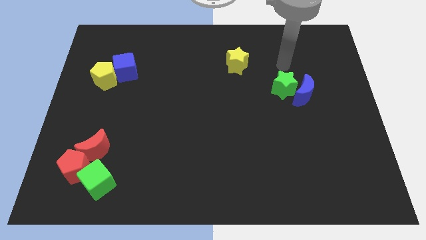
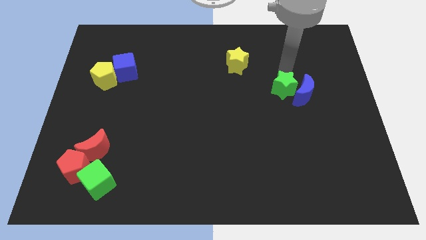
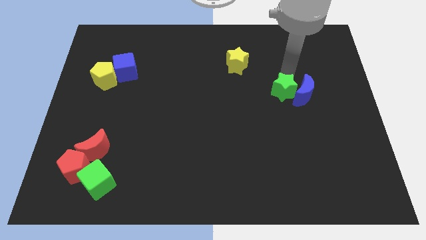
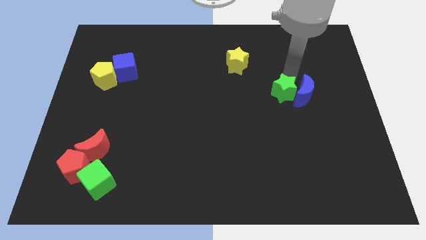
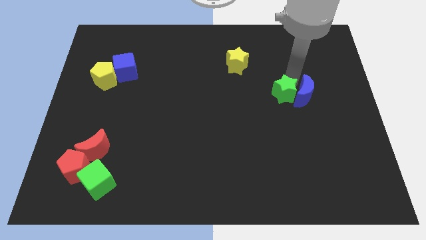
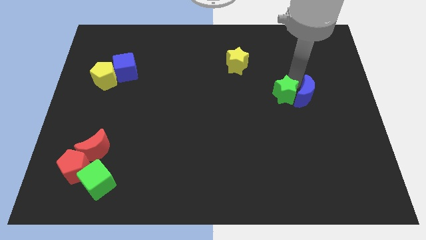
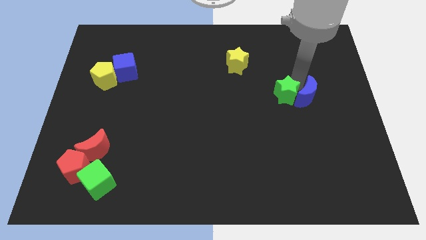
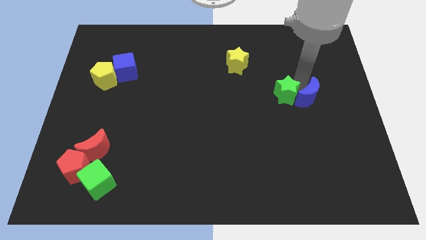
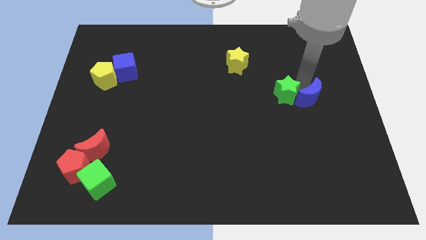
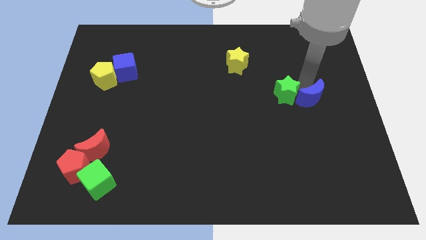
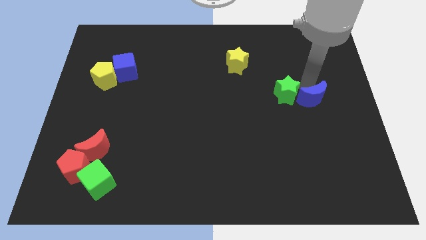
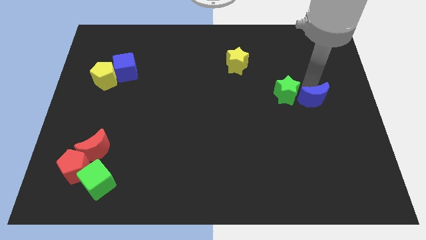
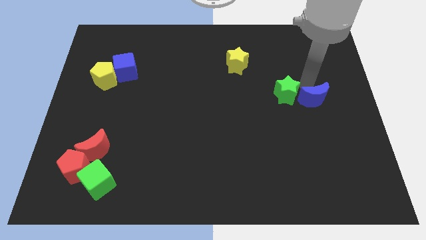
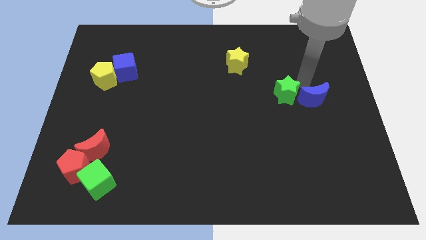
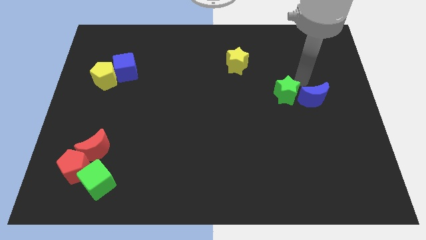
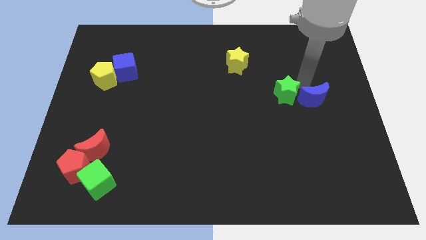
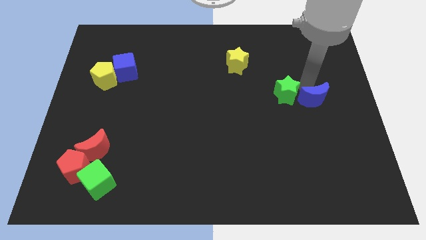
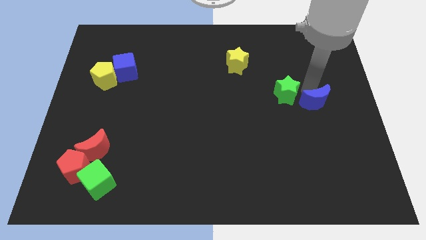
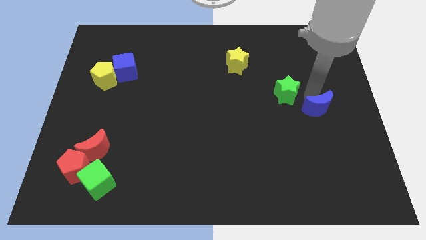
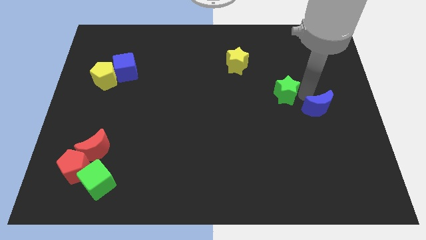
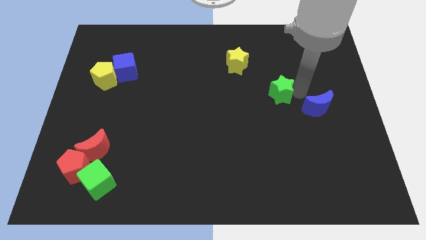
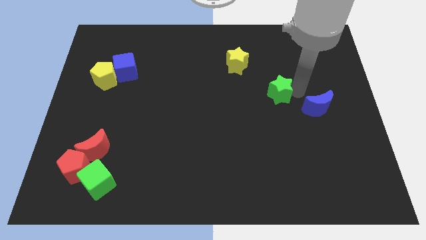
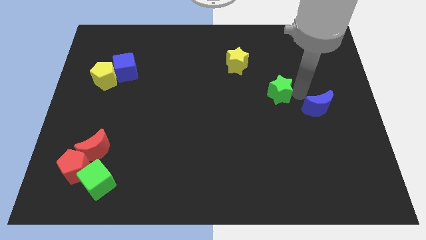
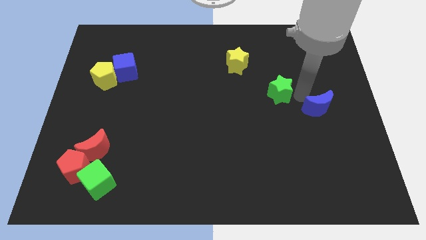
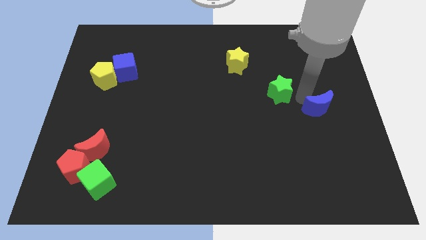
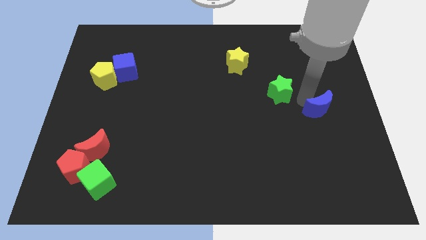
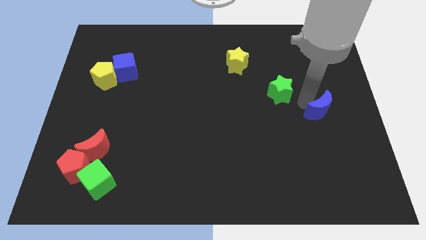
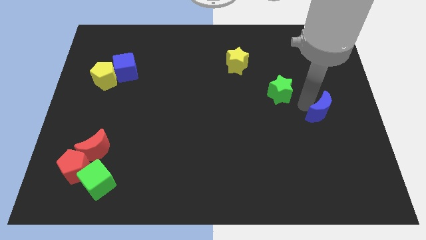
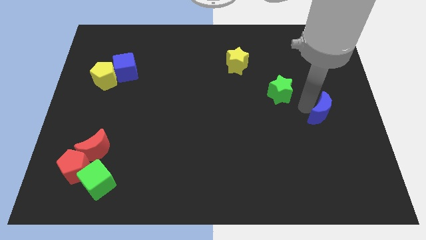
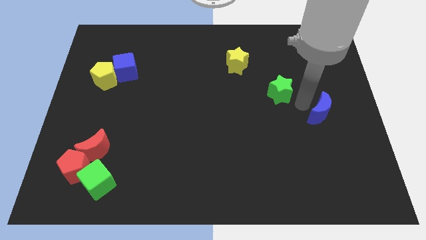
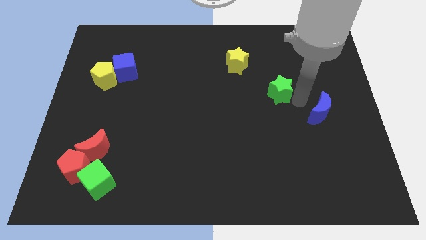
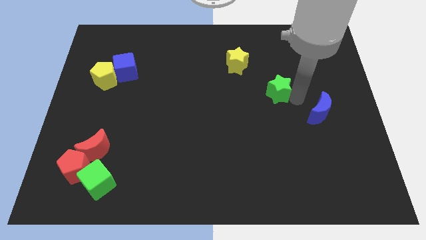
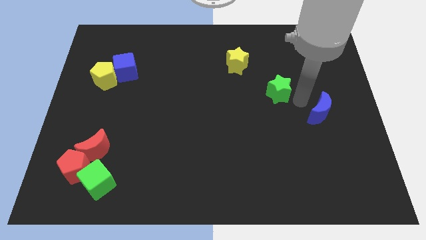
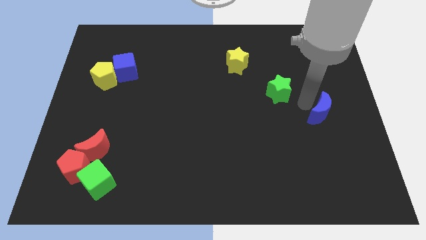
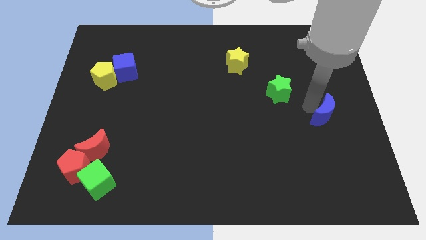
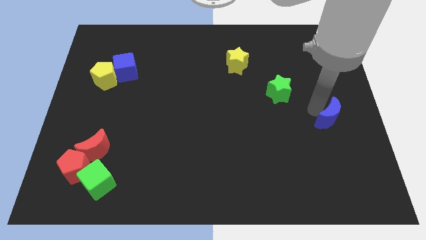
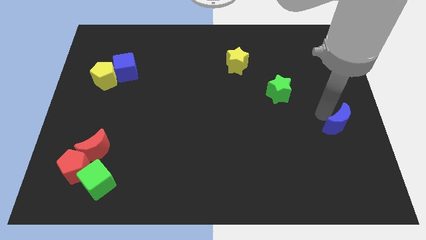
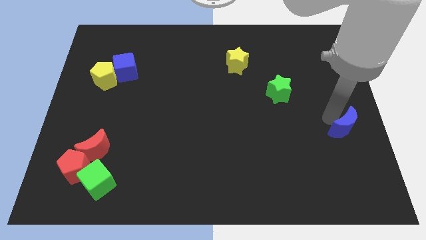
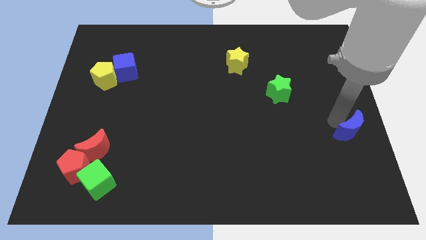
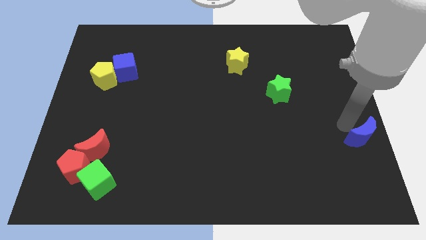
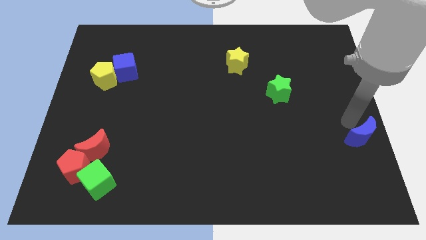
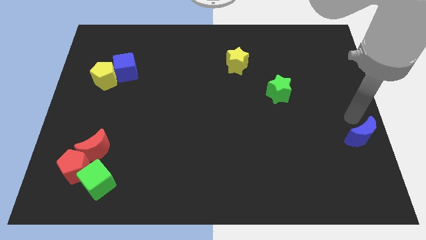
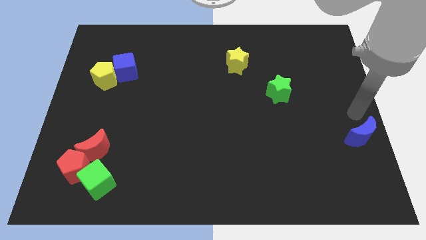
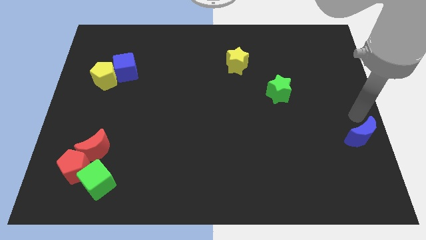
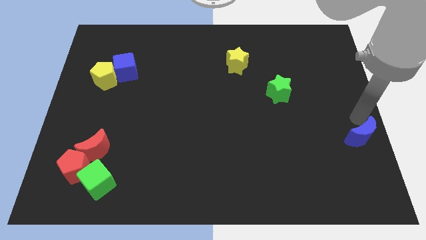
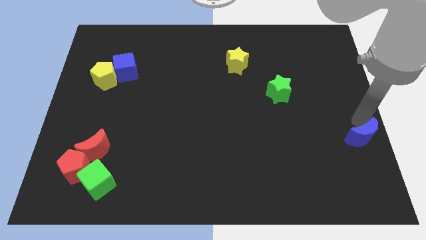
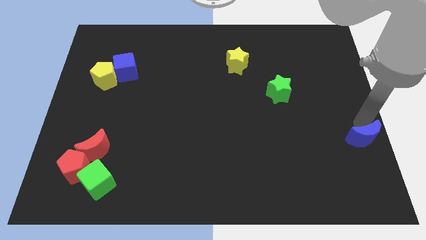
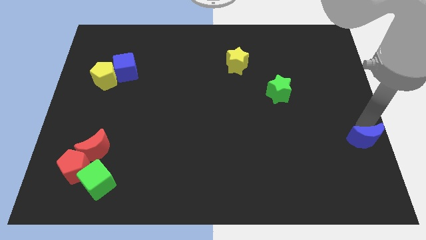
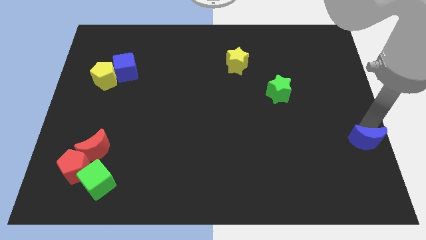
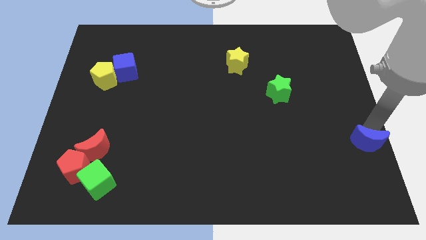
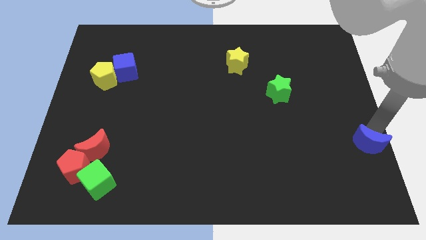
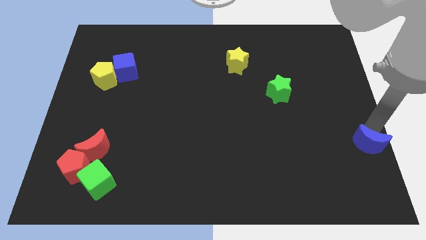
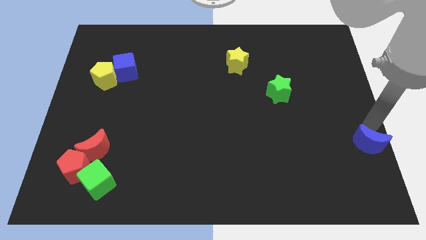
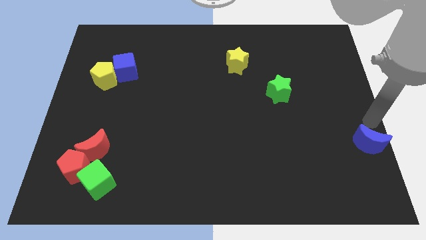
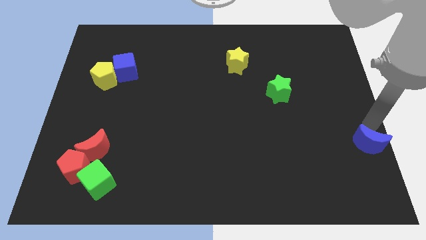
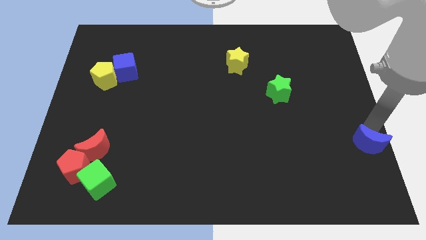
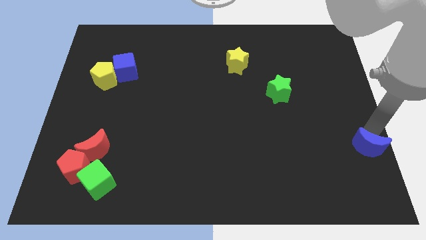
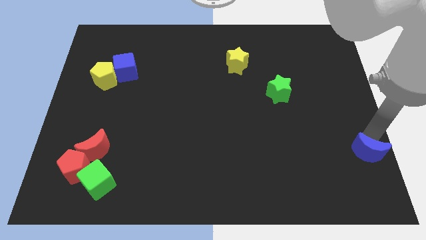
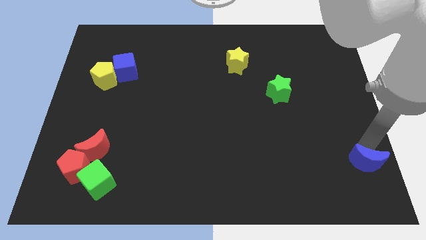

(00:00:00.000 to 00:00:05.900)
push the blue moon to the bottom right of the board

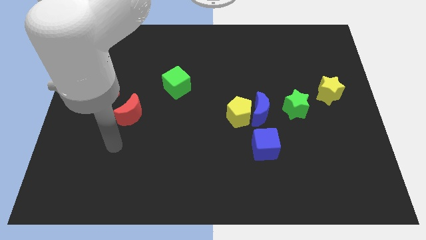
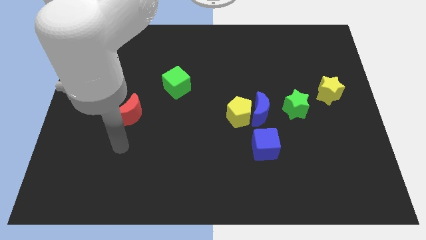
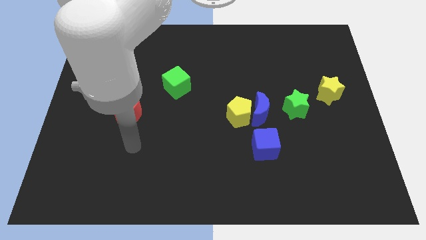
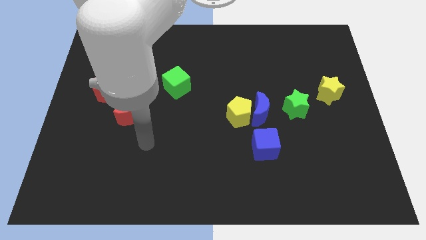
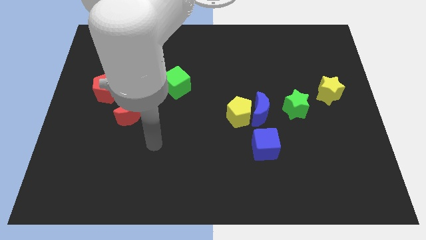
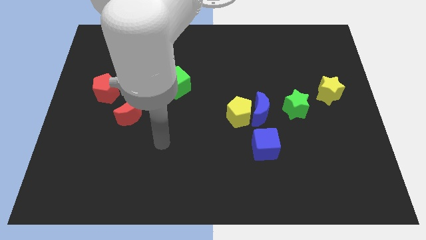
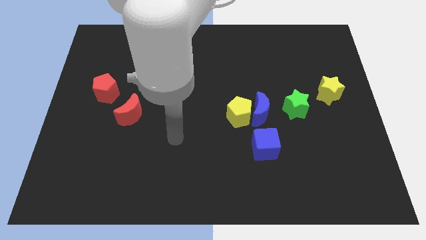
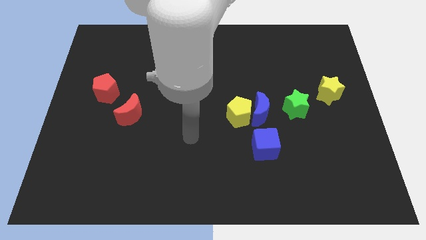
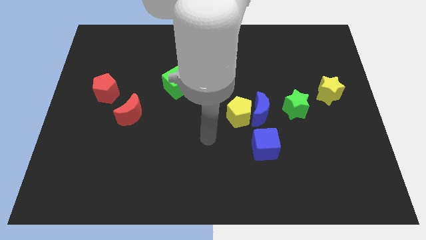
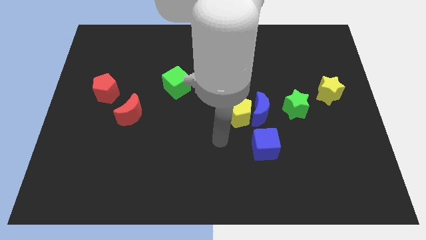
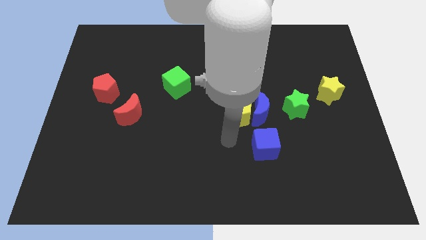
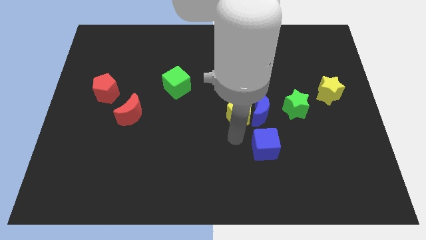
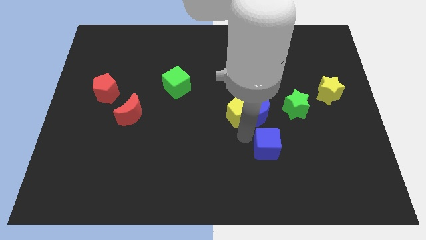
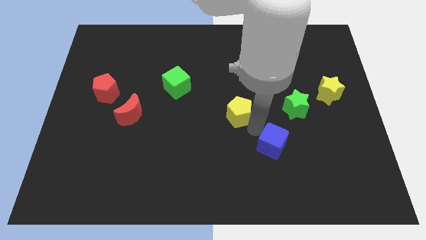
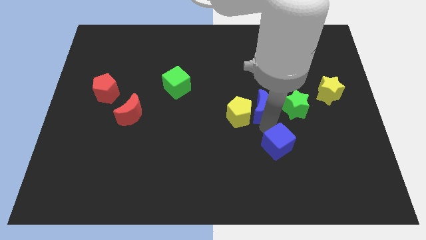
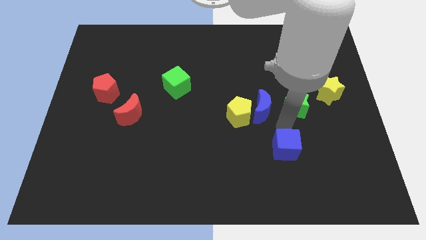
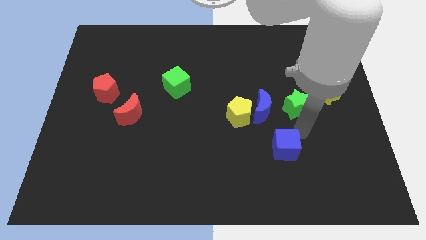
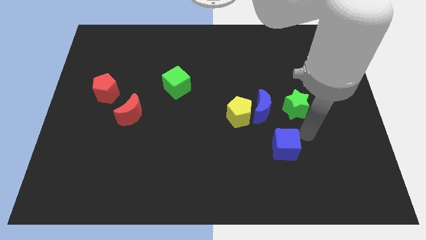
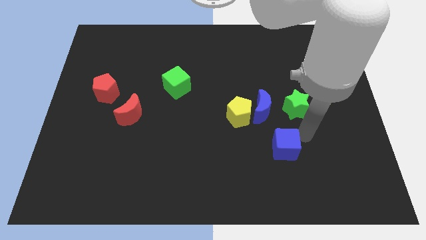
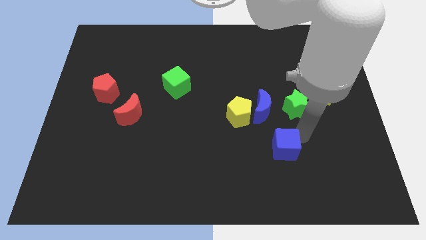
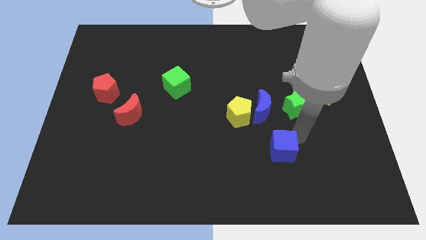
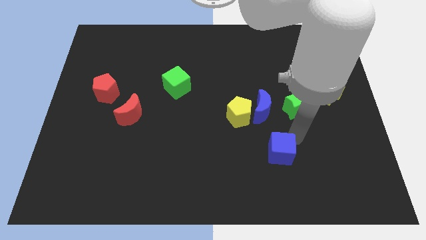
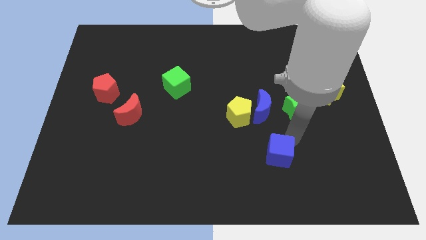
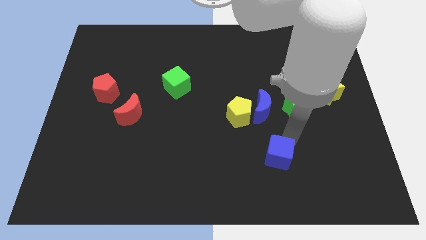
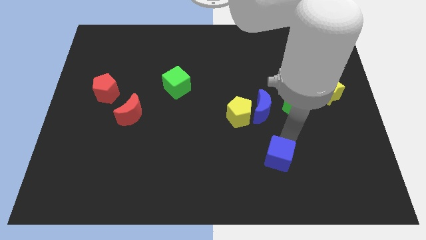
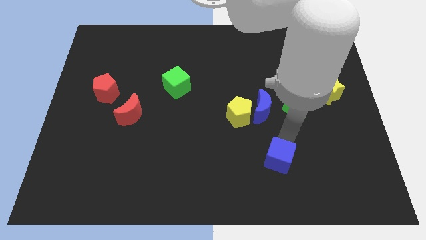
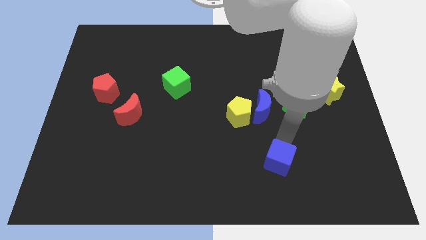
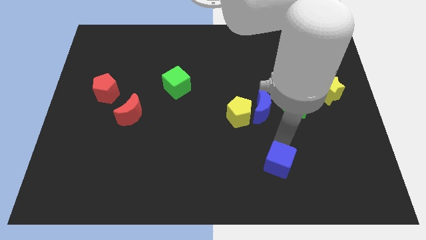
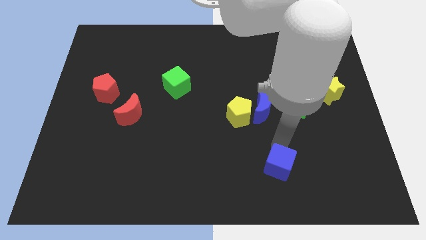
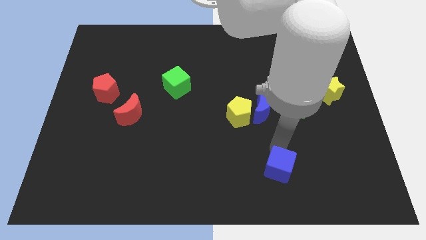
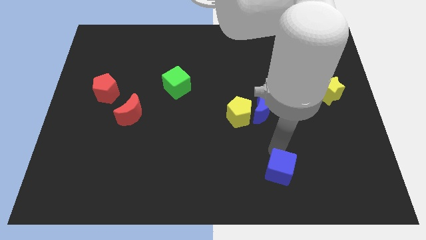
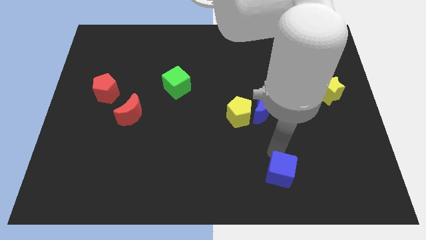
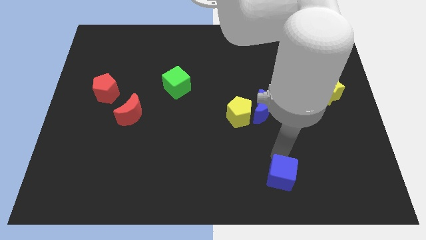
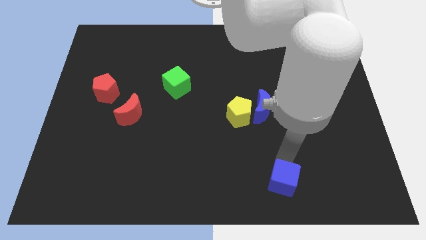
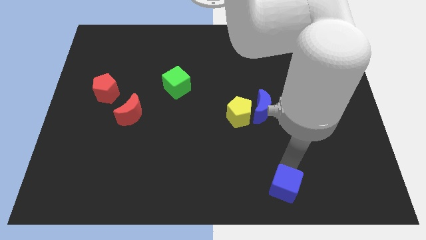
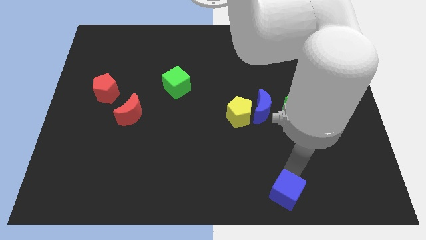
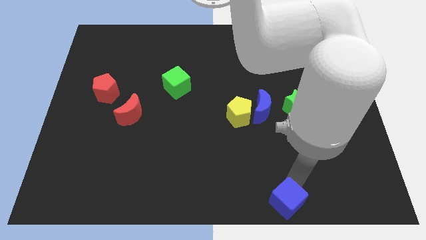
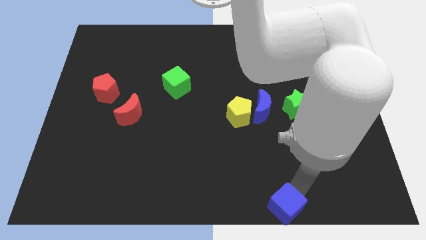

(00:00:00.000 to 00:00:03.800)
push the blue cube to the bottom
